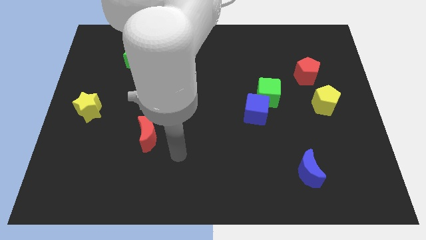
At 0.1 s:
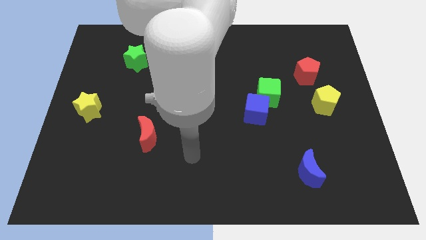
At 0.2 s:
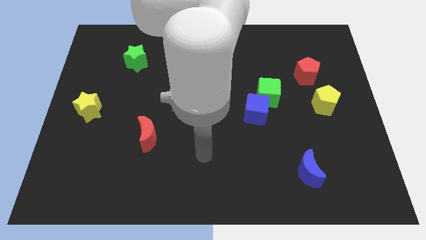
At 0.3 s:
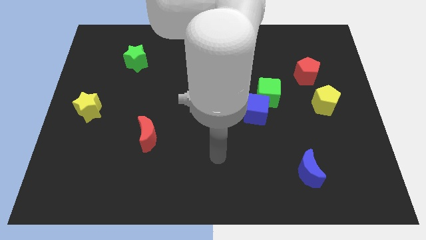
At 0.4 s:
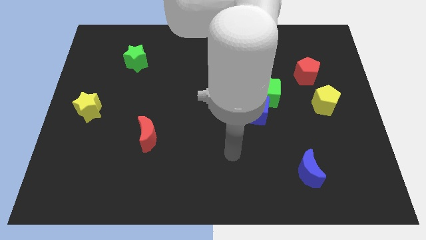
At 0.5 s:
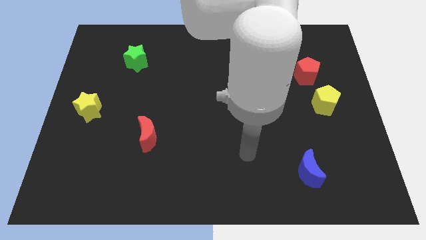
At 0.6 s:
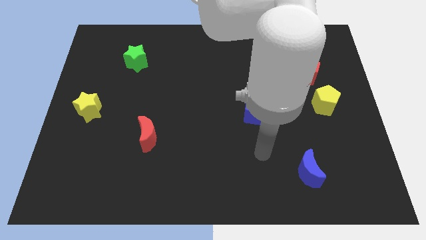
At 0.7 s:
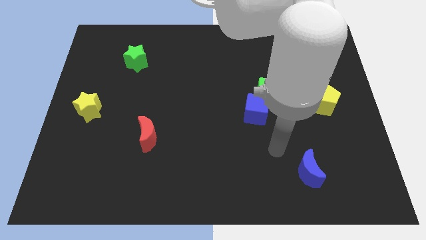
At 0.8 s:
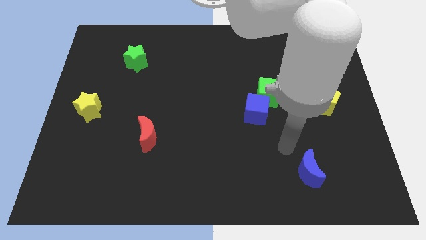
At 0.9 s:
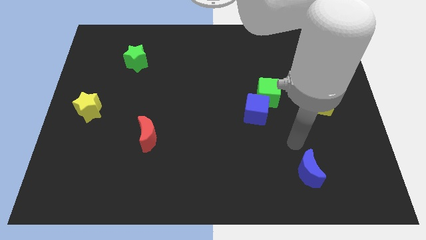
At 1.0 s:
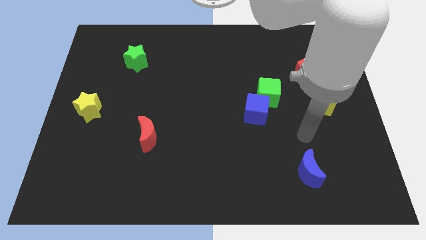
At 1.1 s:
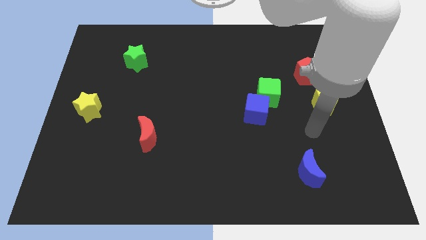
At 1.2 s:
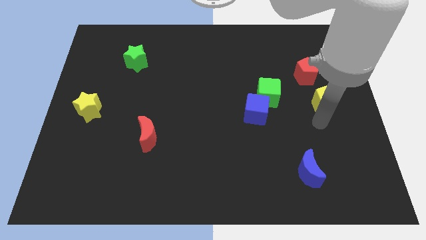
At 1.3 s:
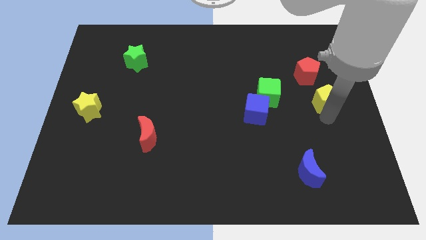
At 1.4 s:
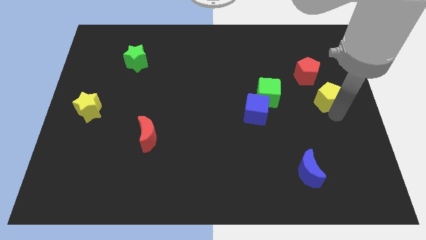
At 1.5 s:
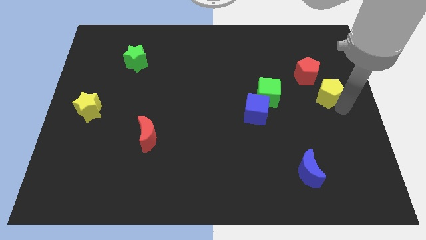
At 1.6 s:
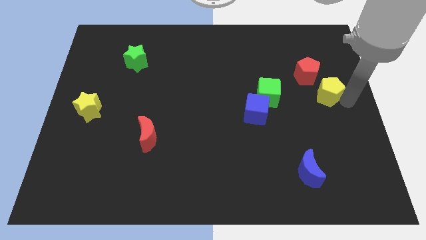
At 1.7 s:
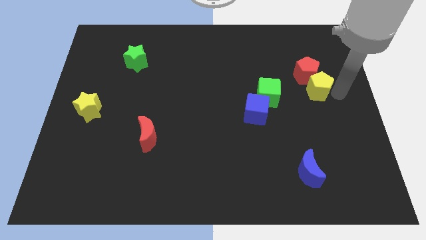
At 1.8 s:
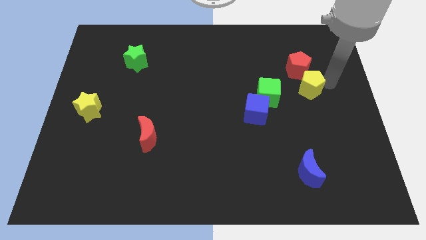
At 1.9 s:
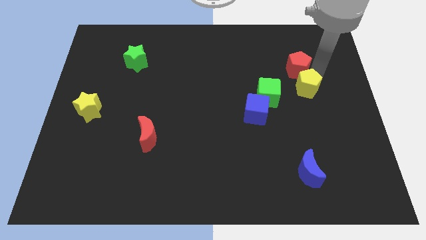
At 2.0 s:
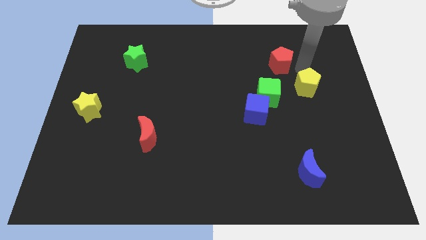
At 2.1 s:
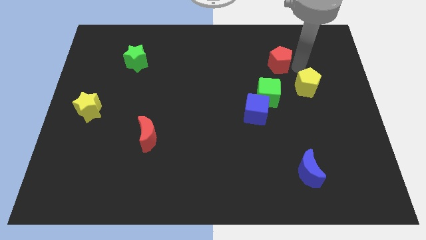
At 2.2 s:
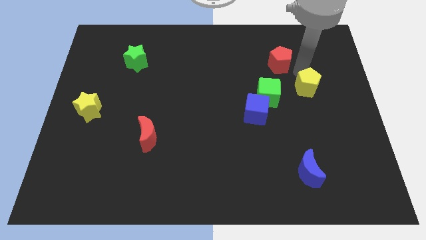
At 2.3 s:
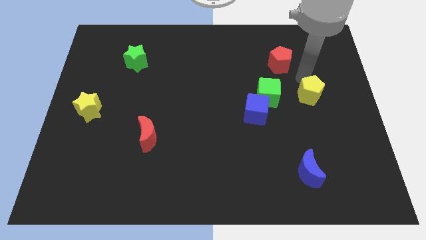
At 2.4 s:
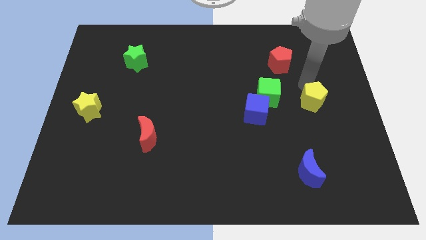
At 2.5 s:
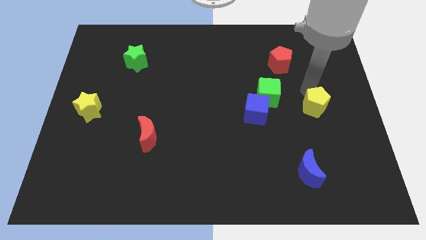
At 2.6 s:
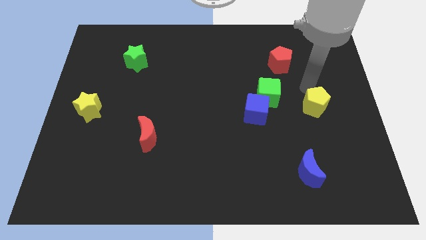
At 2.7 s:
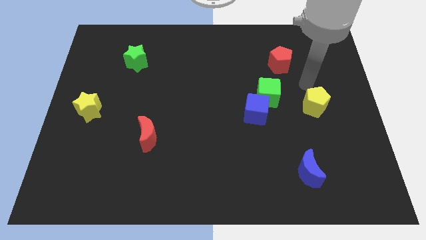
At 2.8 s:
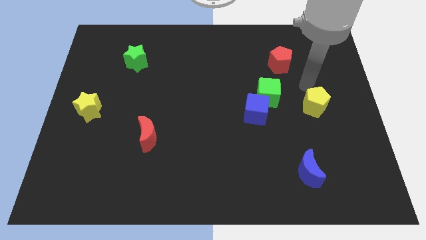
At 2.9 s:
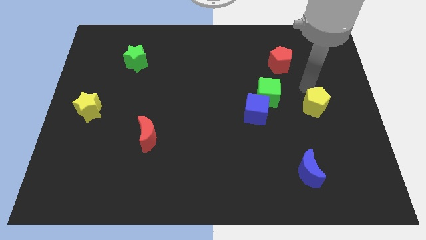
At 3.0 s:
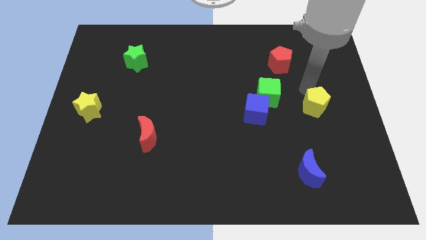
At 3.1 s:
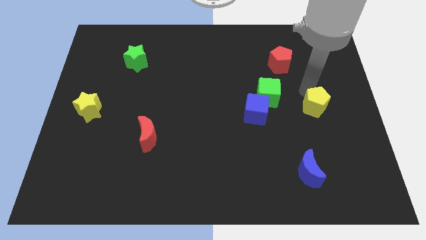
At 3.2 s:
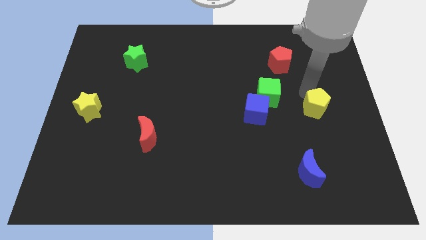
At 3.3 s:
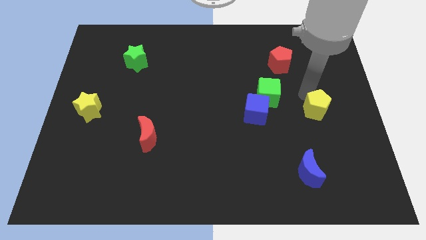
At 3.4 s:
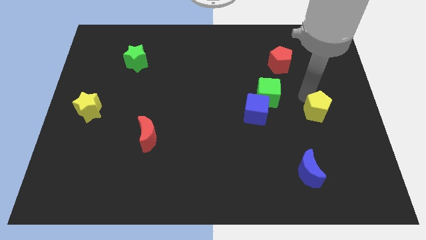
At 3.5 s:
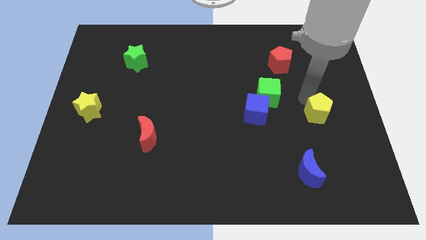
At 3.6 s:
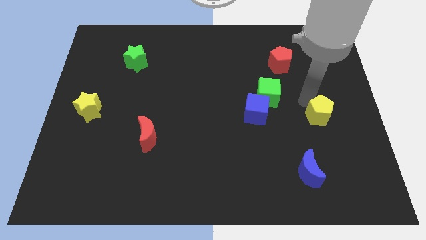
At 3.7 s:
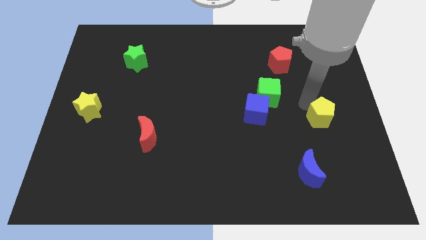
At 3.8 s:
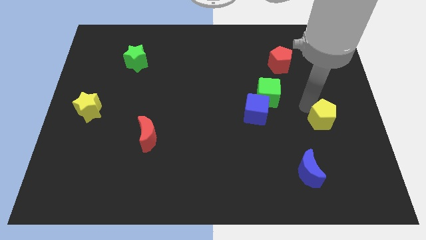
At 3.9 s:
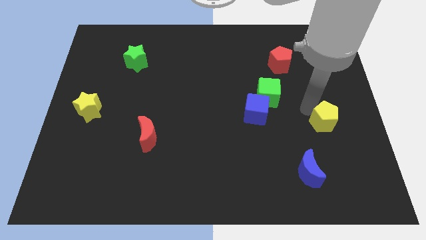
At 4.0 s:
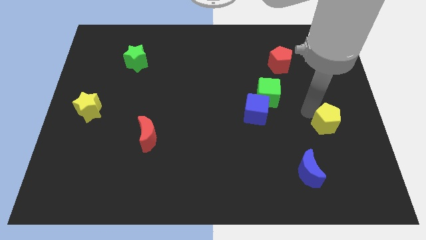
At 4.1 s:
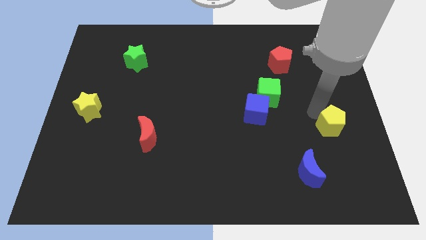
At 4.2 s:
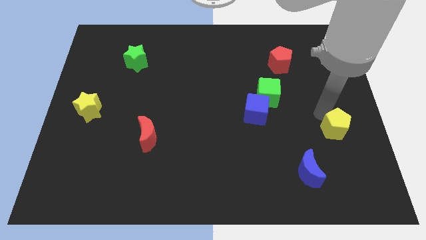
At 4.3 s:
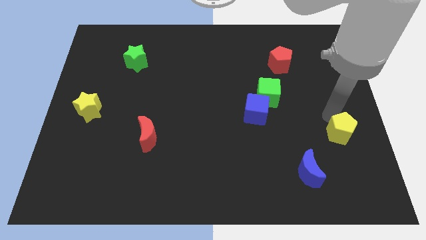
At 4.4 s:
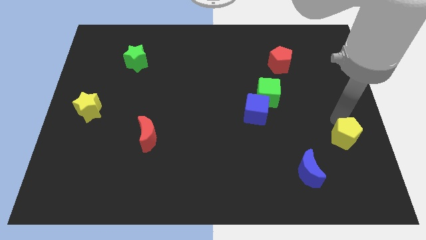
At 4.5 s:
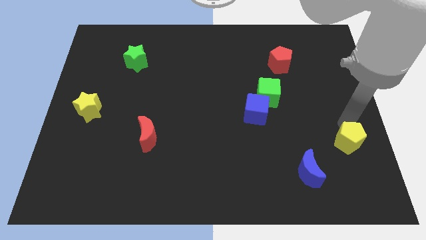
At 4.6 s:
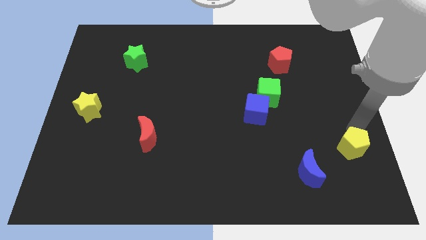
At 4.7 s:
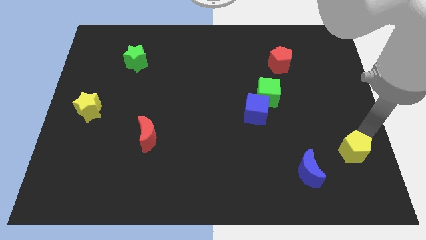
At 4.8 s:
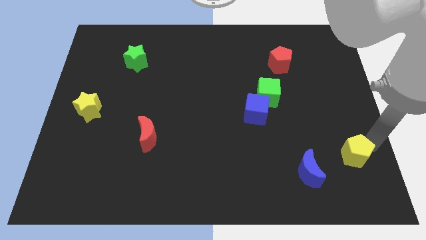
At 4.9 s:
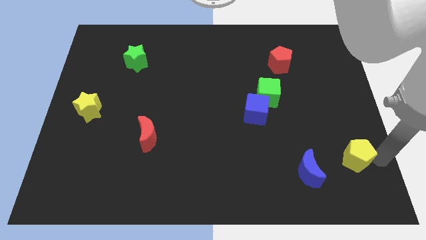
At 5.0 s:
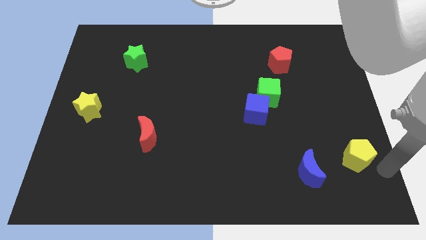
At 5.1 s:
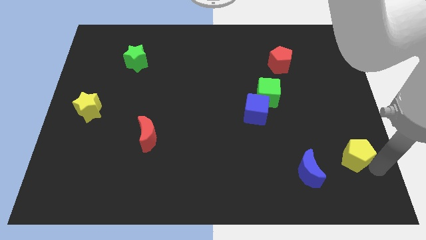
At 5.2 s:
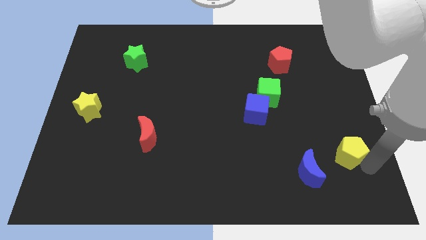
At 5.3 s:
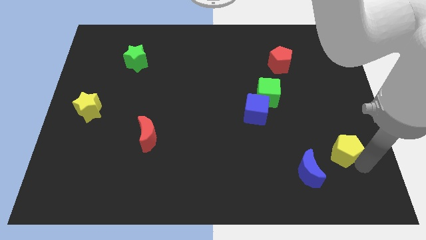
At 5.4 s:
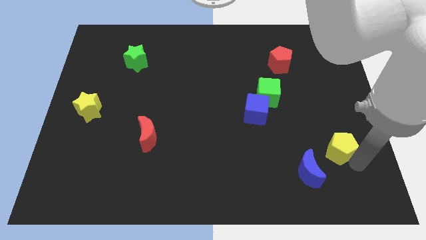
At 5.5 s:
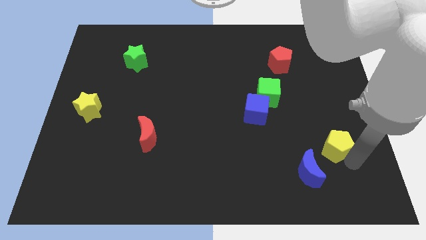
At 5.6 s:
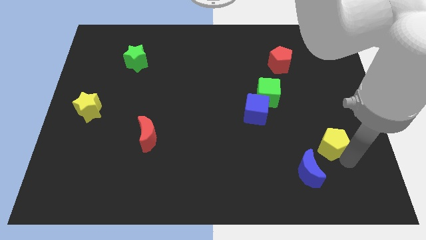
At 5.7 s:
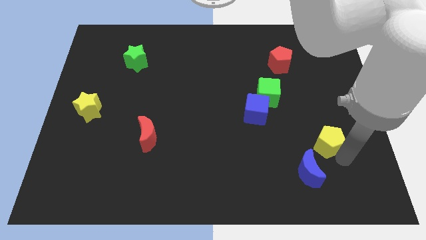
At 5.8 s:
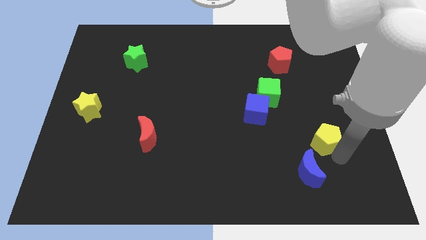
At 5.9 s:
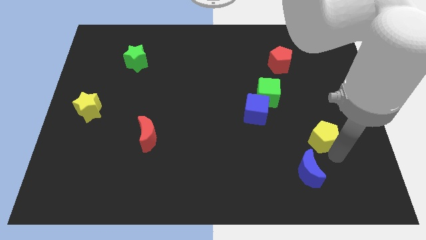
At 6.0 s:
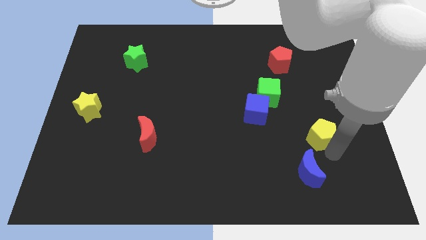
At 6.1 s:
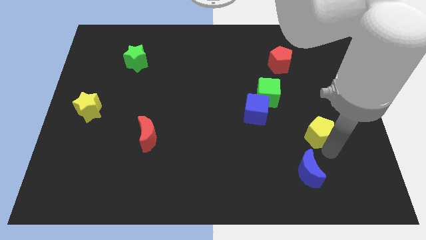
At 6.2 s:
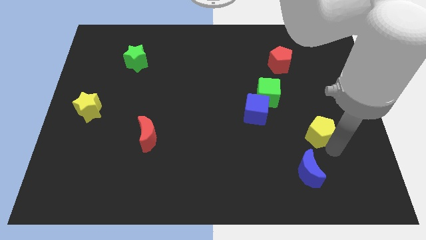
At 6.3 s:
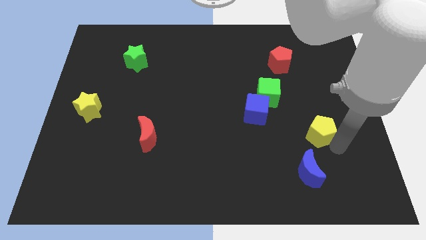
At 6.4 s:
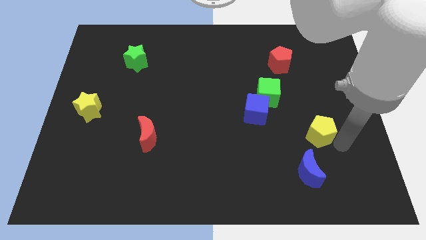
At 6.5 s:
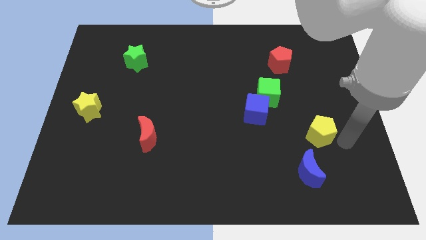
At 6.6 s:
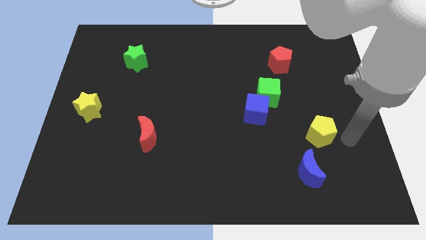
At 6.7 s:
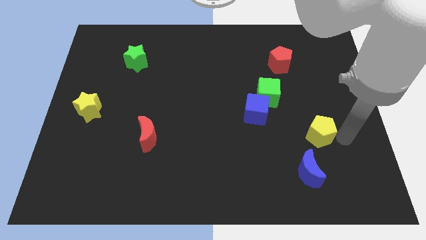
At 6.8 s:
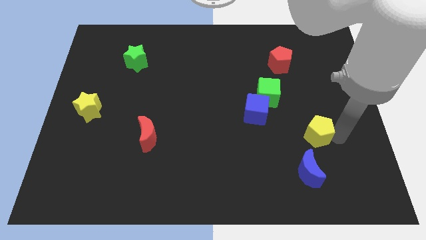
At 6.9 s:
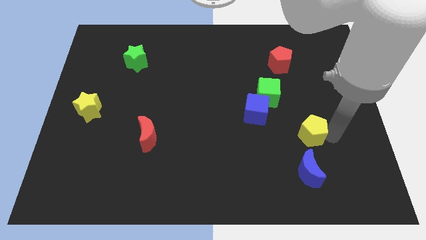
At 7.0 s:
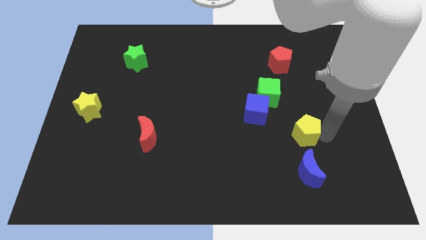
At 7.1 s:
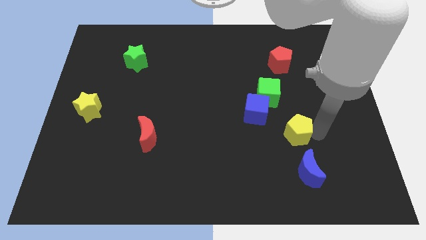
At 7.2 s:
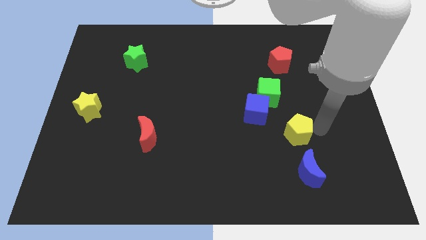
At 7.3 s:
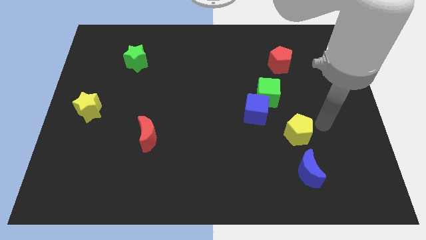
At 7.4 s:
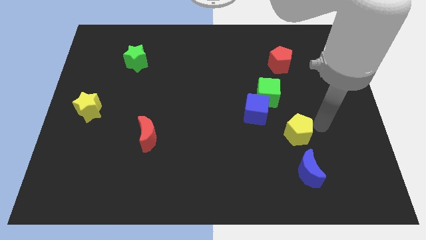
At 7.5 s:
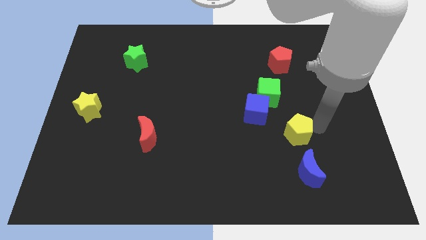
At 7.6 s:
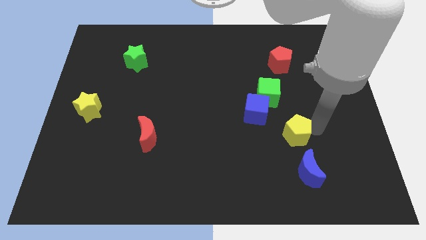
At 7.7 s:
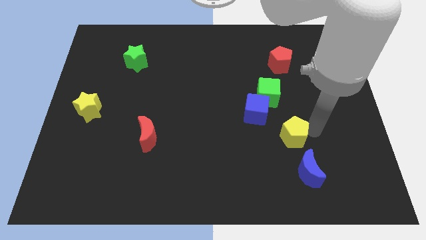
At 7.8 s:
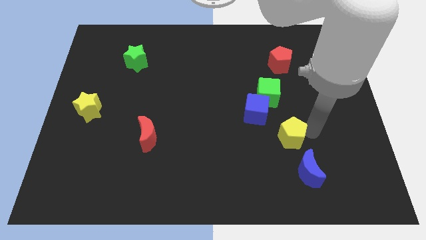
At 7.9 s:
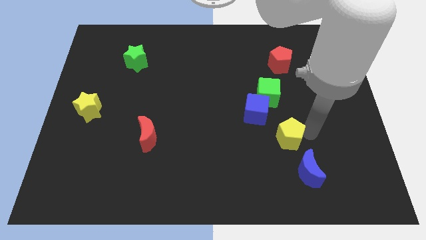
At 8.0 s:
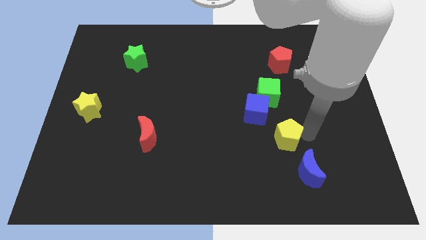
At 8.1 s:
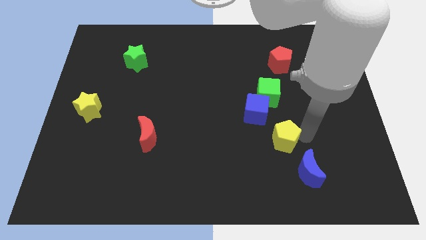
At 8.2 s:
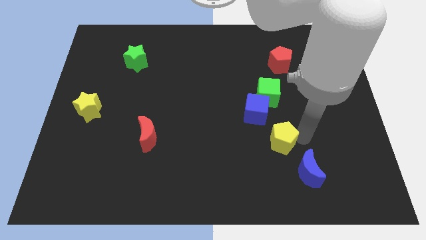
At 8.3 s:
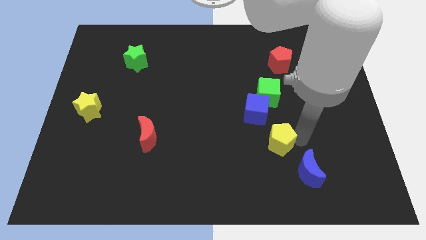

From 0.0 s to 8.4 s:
put the yellow pentagon to the bottom side of the blue cube
